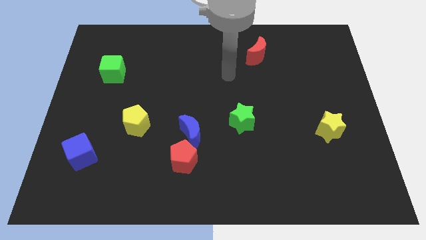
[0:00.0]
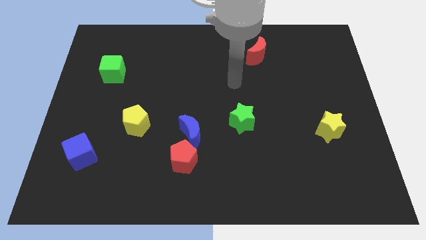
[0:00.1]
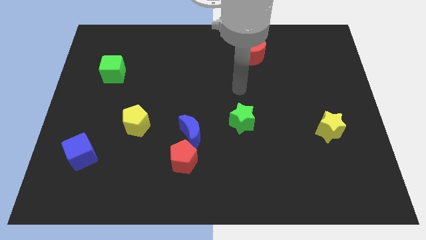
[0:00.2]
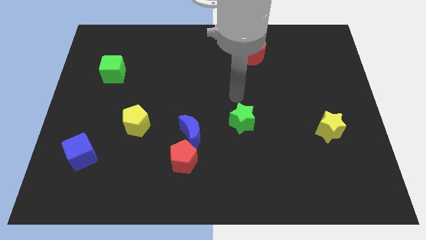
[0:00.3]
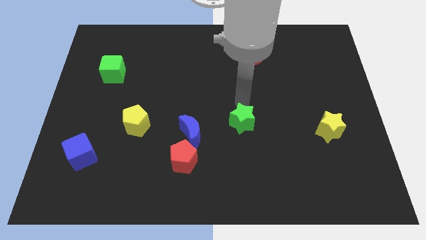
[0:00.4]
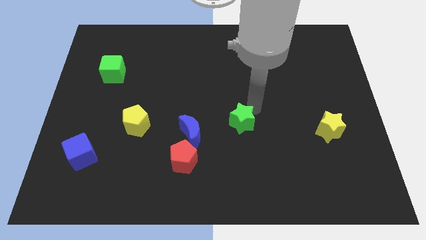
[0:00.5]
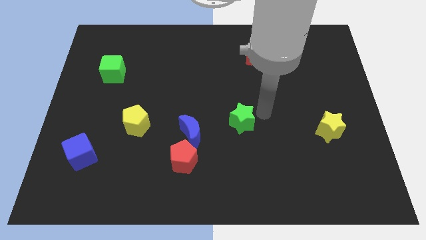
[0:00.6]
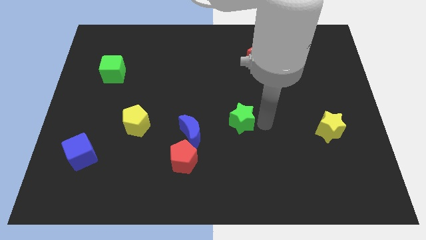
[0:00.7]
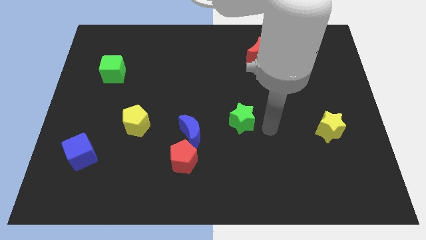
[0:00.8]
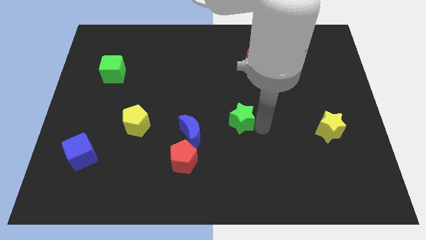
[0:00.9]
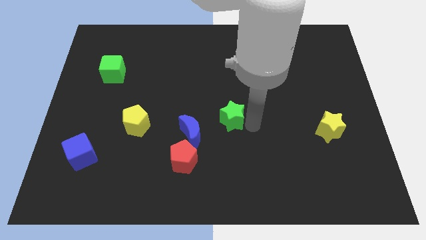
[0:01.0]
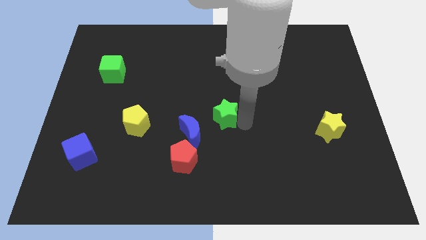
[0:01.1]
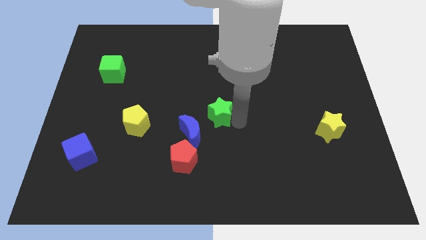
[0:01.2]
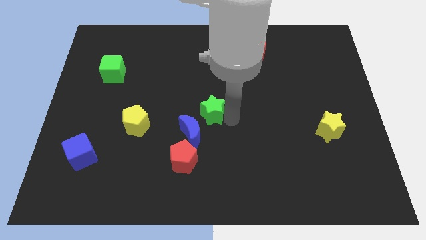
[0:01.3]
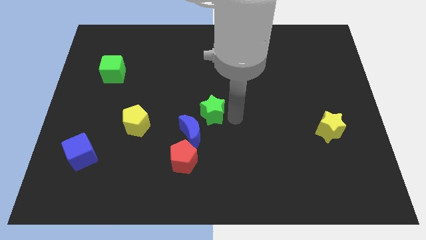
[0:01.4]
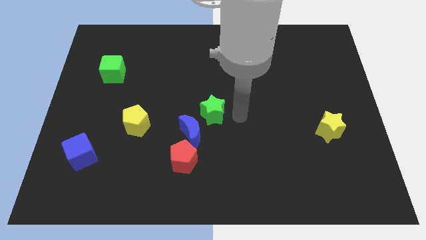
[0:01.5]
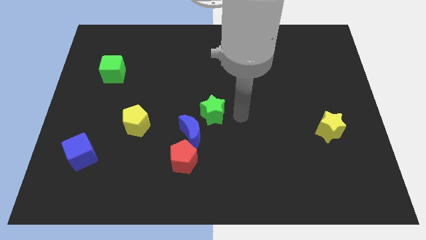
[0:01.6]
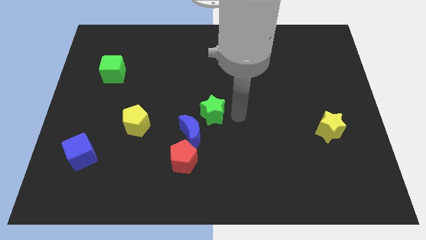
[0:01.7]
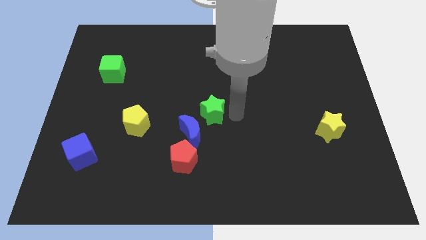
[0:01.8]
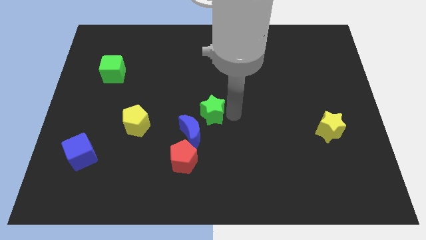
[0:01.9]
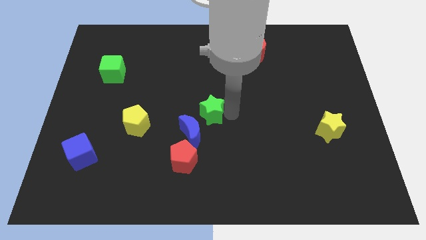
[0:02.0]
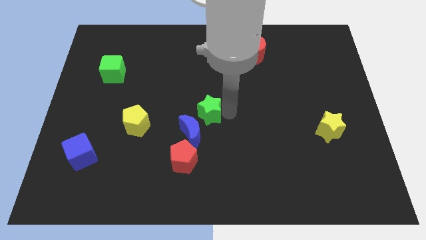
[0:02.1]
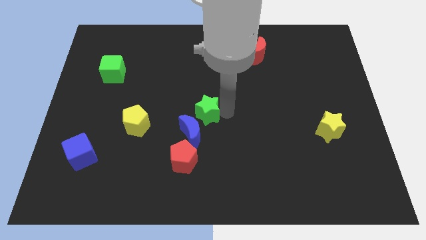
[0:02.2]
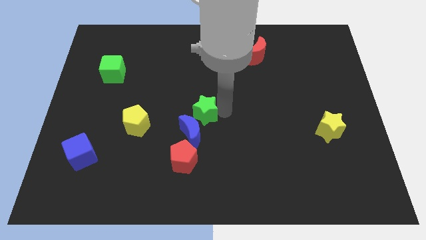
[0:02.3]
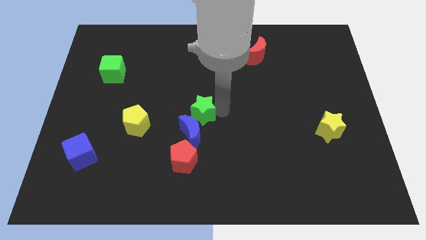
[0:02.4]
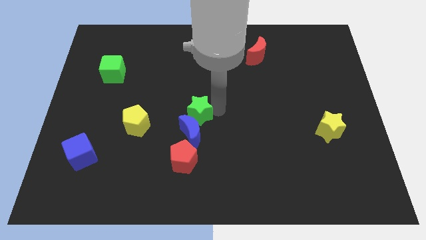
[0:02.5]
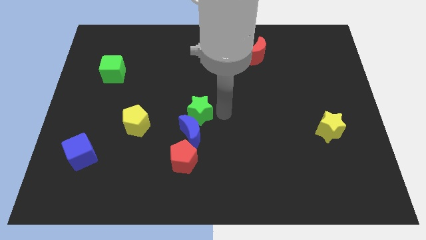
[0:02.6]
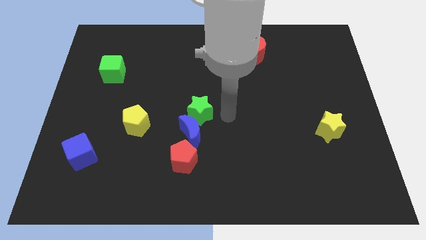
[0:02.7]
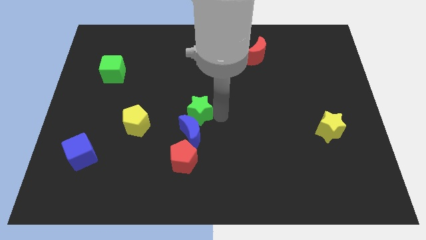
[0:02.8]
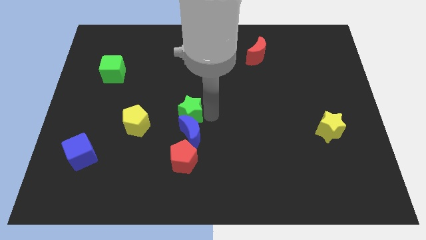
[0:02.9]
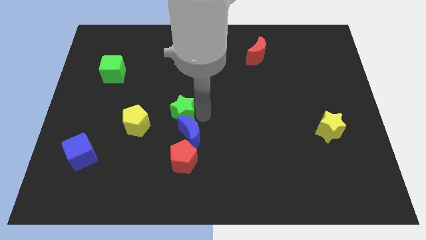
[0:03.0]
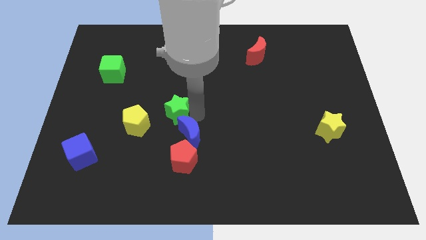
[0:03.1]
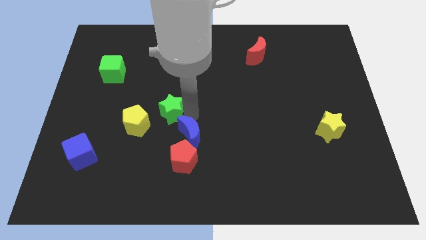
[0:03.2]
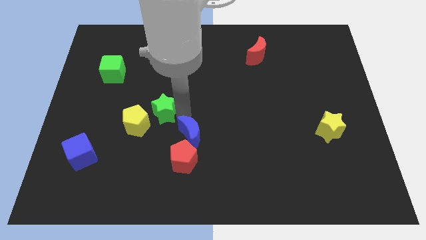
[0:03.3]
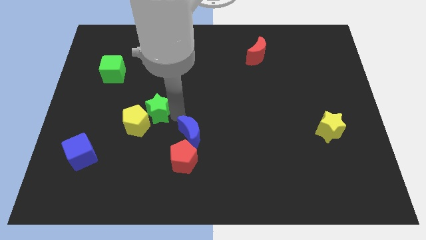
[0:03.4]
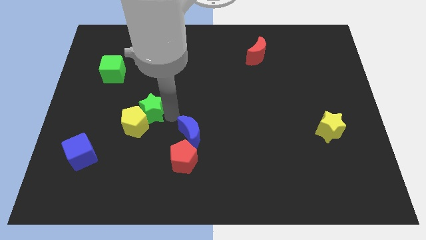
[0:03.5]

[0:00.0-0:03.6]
slide the green star to the left

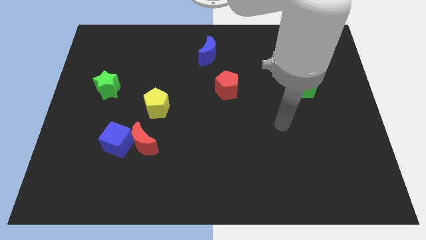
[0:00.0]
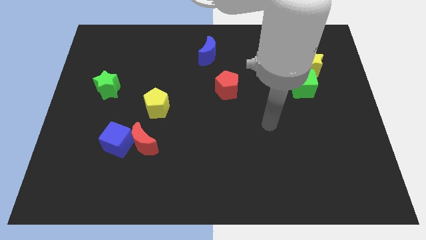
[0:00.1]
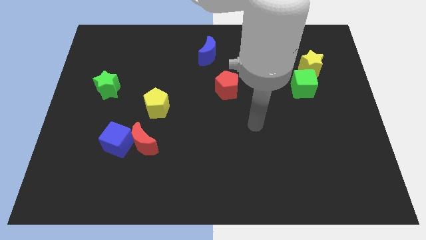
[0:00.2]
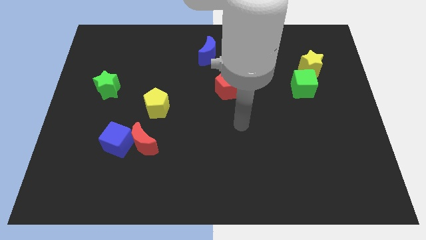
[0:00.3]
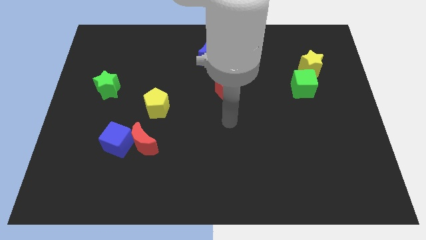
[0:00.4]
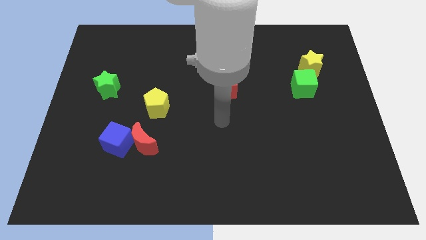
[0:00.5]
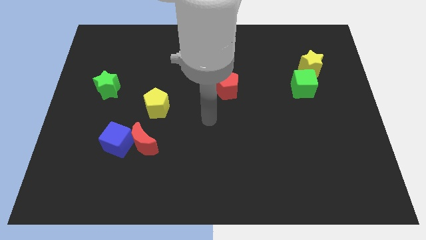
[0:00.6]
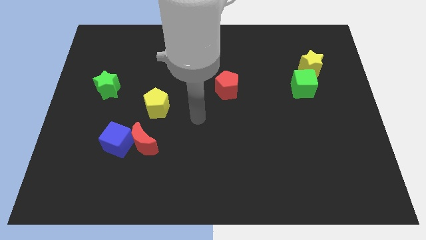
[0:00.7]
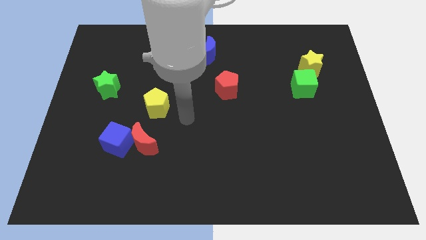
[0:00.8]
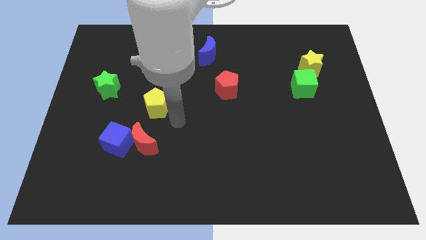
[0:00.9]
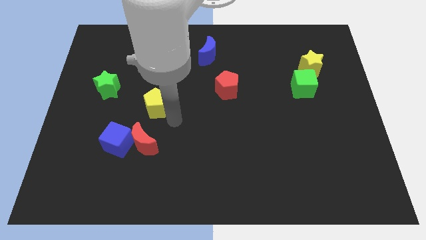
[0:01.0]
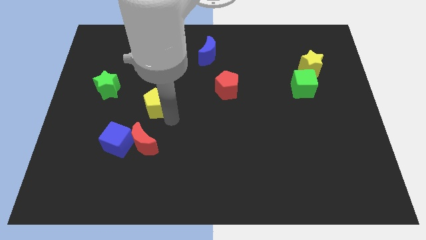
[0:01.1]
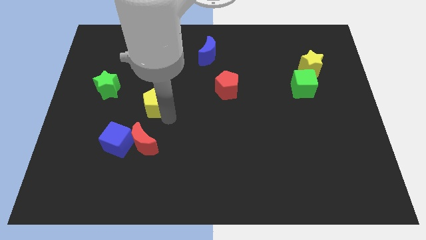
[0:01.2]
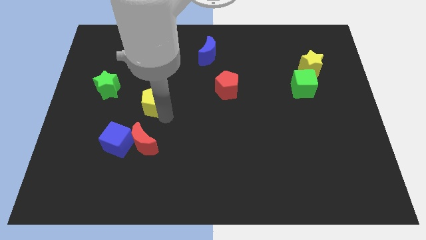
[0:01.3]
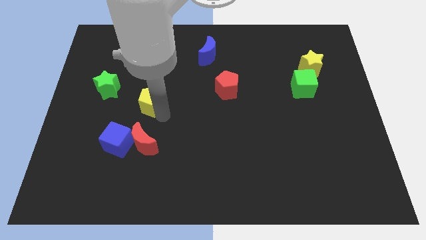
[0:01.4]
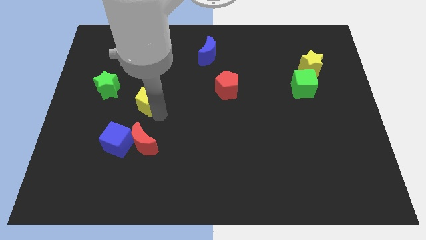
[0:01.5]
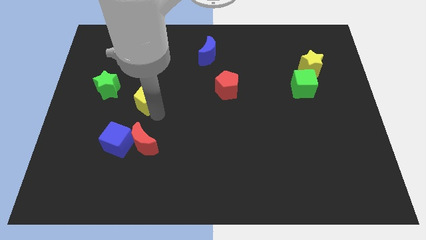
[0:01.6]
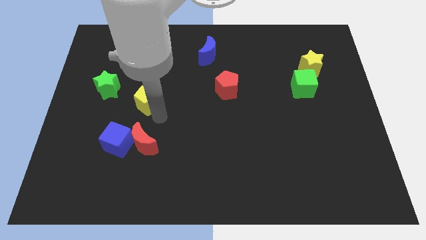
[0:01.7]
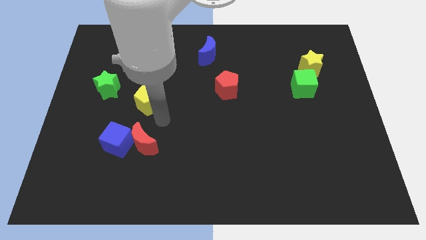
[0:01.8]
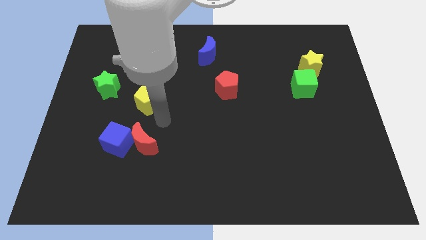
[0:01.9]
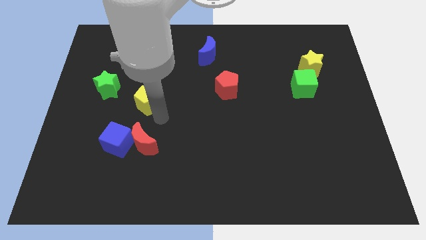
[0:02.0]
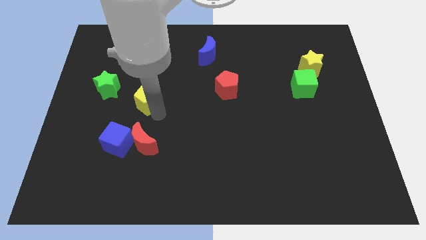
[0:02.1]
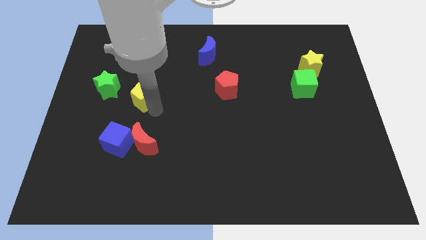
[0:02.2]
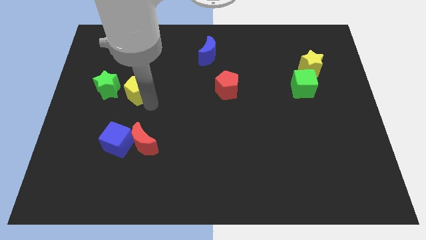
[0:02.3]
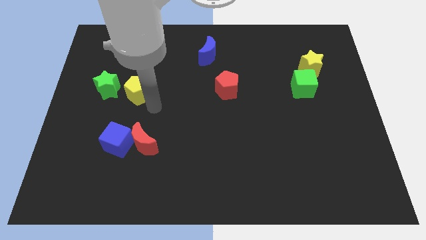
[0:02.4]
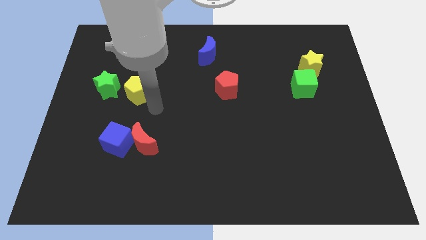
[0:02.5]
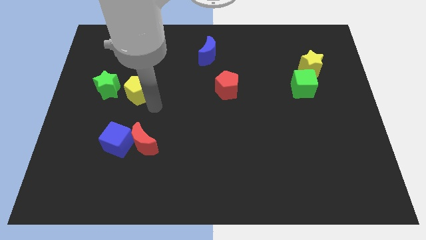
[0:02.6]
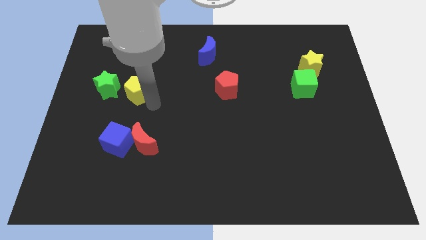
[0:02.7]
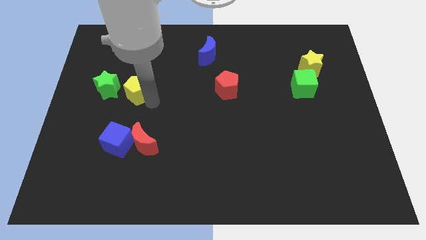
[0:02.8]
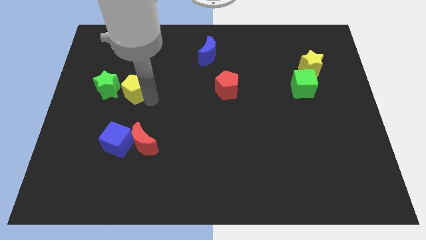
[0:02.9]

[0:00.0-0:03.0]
slightly push the yellow pentagon upwards and then left

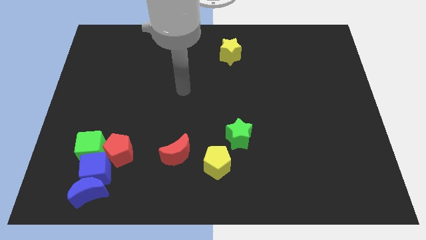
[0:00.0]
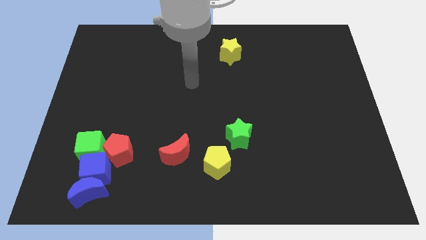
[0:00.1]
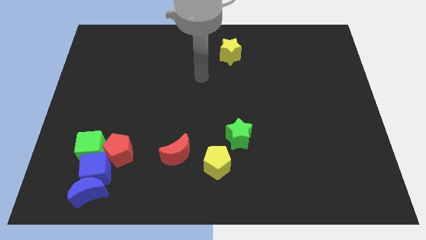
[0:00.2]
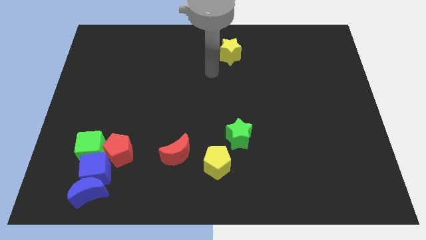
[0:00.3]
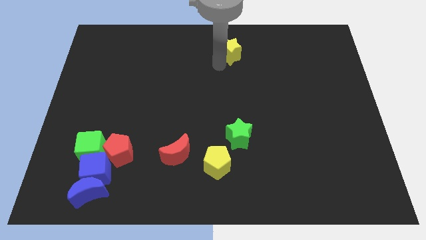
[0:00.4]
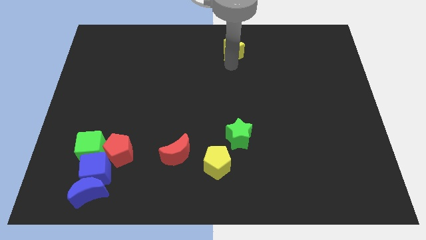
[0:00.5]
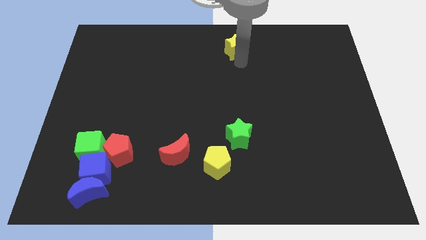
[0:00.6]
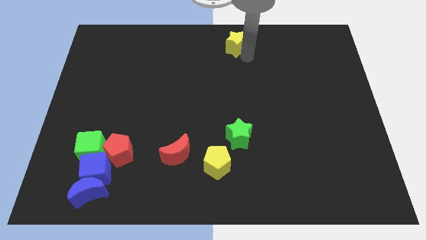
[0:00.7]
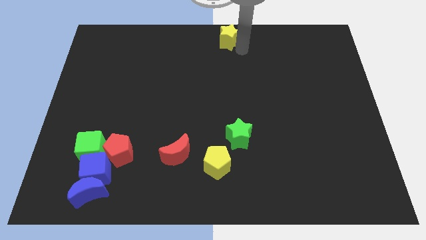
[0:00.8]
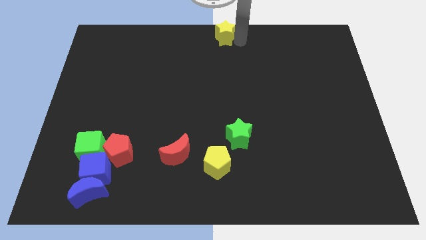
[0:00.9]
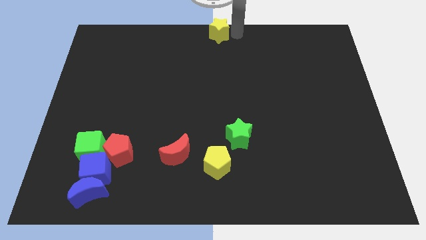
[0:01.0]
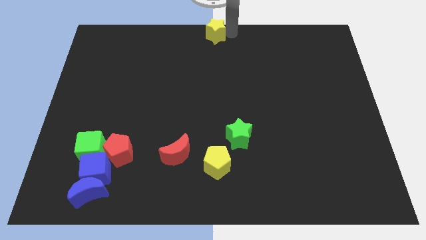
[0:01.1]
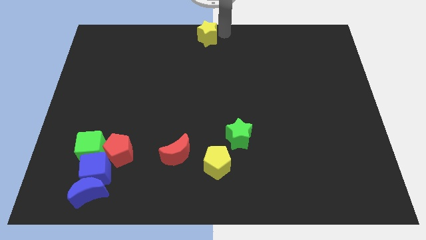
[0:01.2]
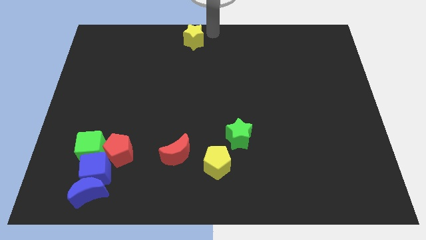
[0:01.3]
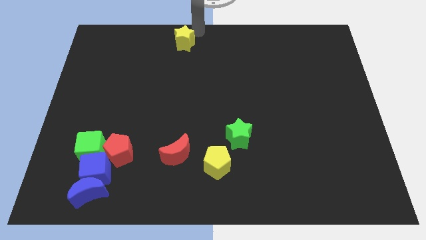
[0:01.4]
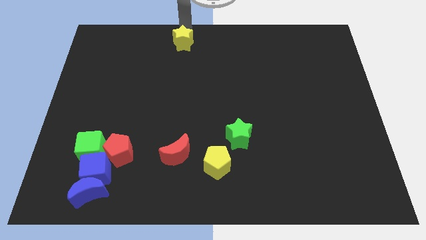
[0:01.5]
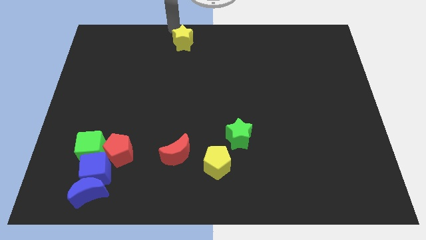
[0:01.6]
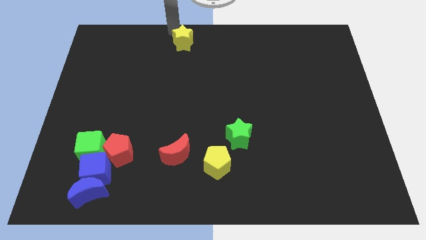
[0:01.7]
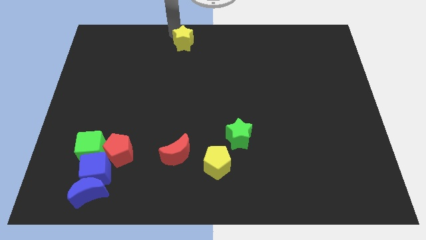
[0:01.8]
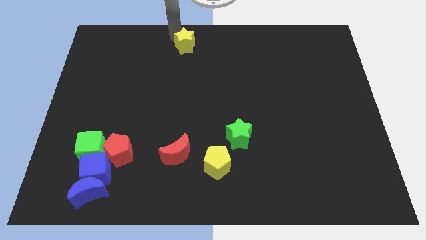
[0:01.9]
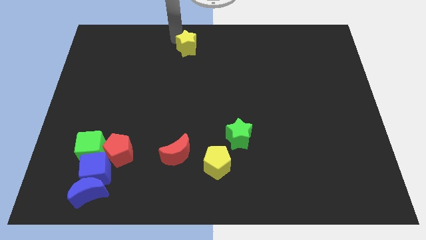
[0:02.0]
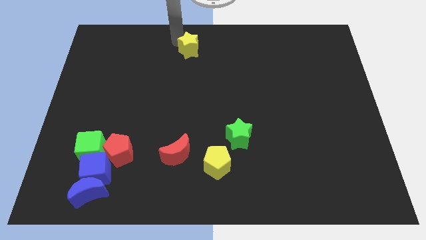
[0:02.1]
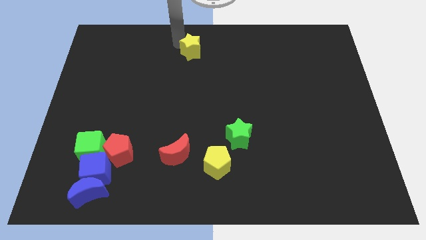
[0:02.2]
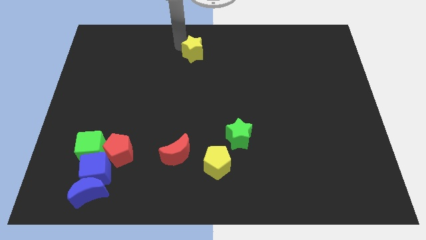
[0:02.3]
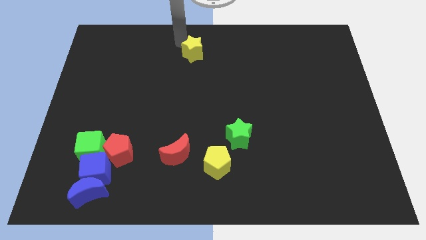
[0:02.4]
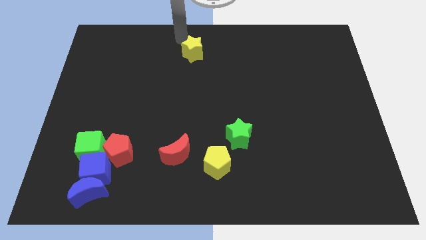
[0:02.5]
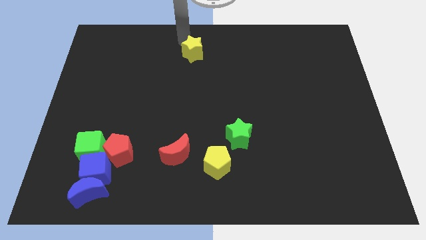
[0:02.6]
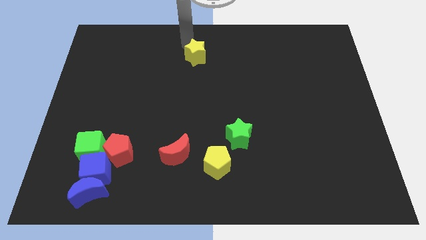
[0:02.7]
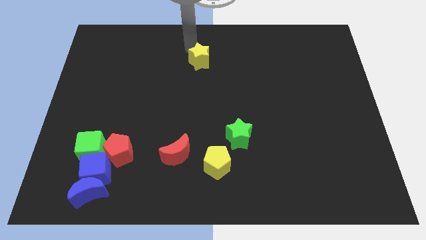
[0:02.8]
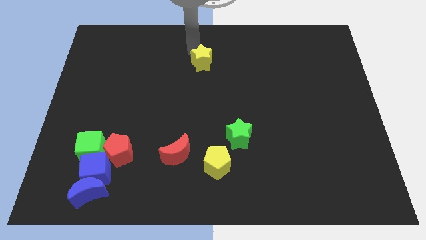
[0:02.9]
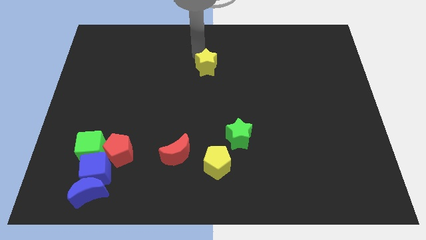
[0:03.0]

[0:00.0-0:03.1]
slide the yellow star downwards and to the left a bit
